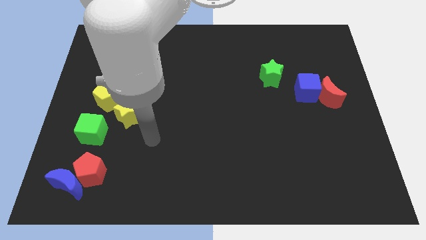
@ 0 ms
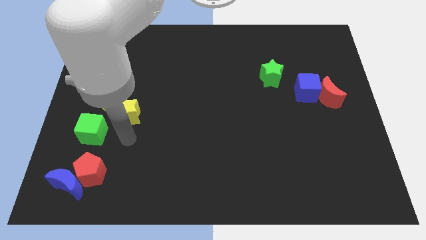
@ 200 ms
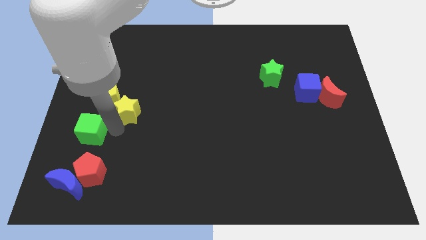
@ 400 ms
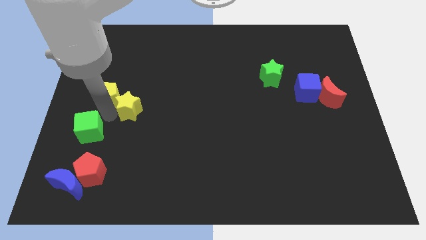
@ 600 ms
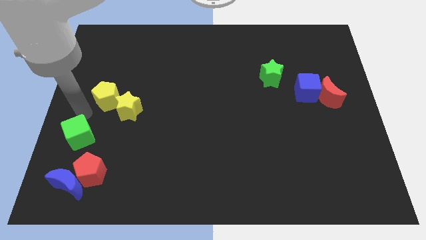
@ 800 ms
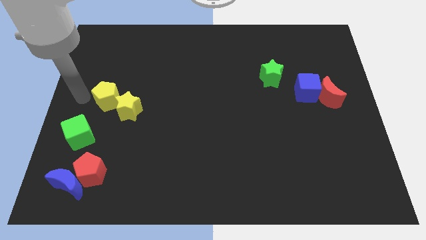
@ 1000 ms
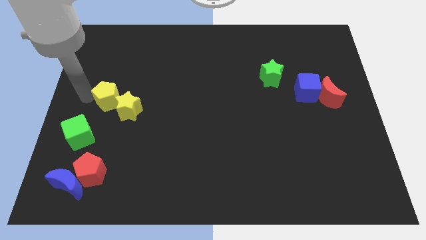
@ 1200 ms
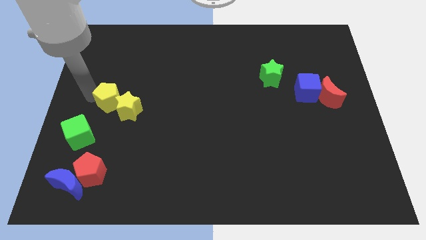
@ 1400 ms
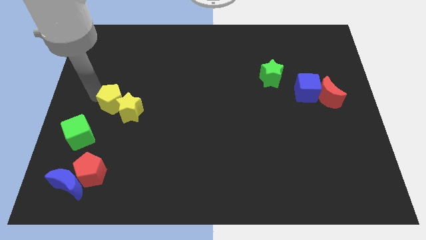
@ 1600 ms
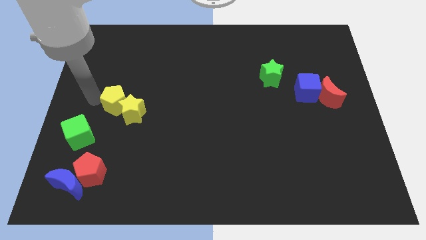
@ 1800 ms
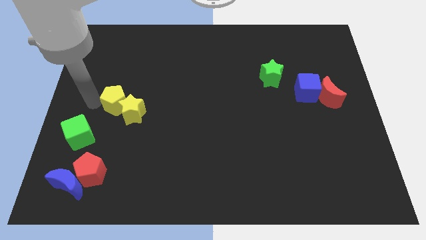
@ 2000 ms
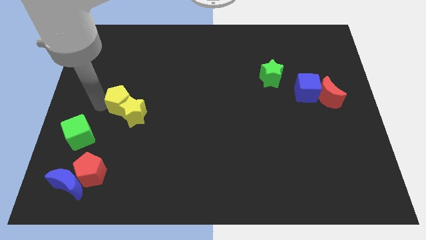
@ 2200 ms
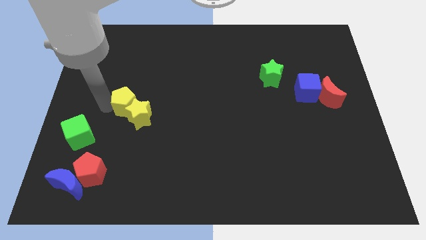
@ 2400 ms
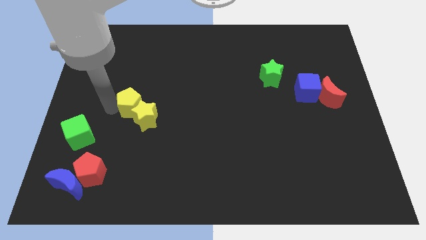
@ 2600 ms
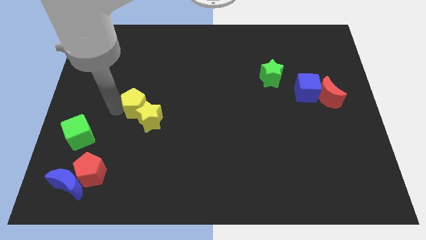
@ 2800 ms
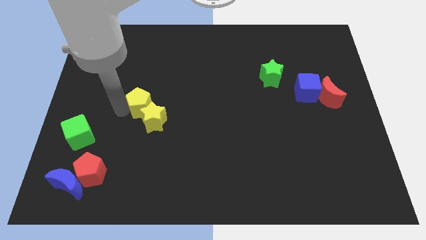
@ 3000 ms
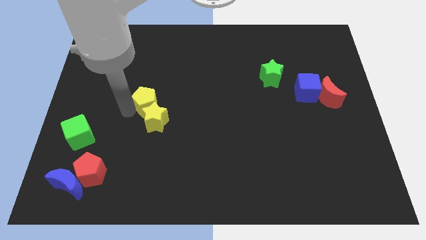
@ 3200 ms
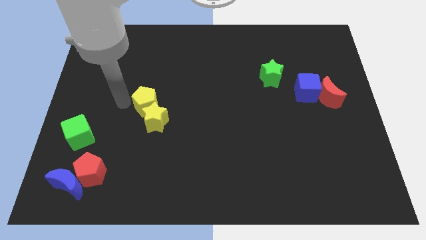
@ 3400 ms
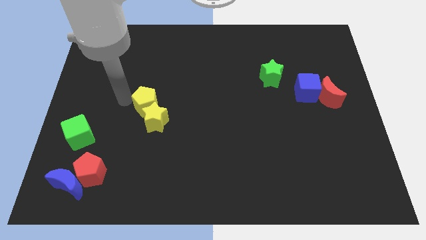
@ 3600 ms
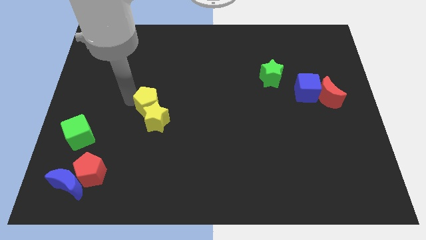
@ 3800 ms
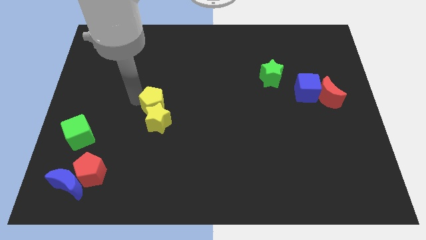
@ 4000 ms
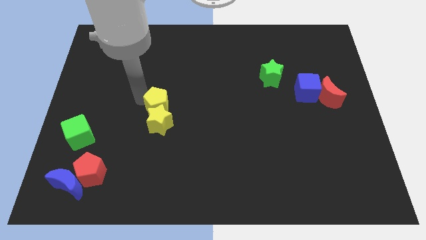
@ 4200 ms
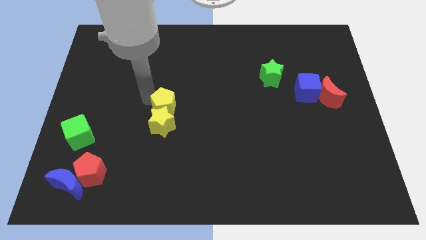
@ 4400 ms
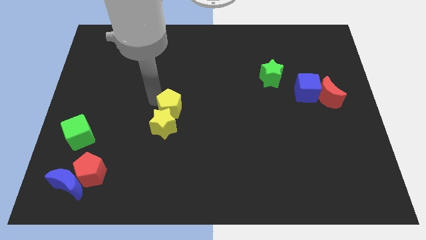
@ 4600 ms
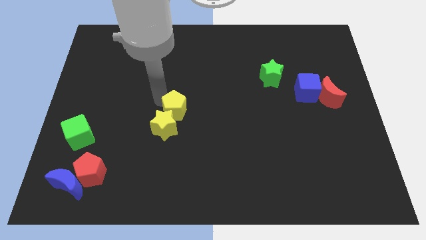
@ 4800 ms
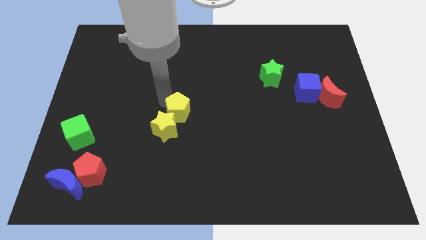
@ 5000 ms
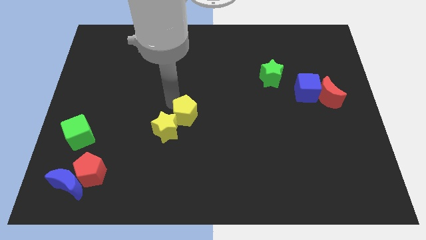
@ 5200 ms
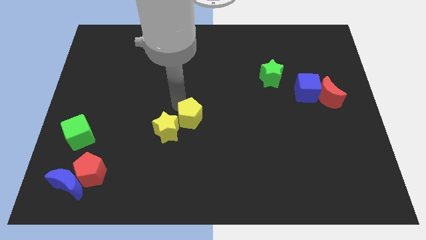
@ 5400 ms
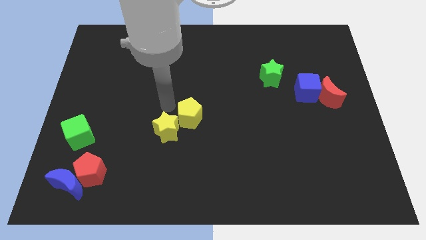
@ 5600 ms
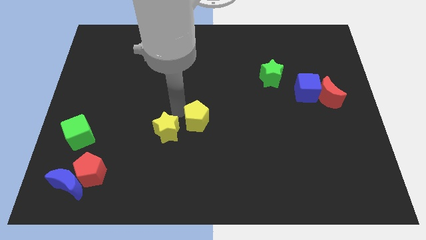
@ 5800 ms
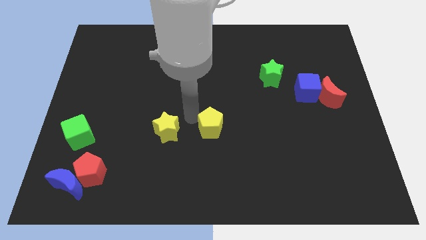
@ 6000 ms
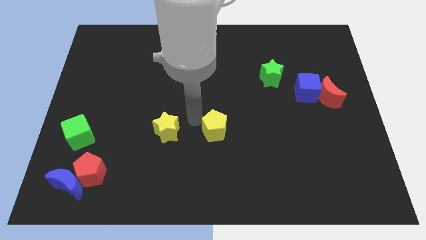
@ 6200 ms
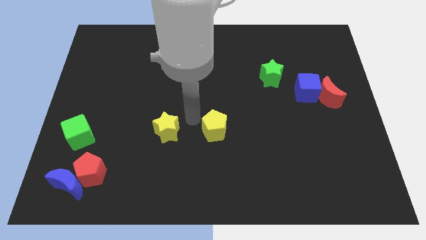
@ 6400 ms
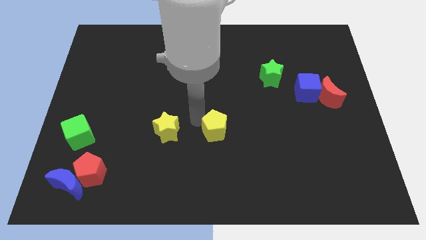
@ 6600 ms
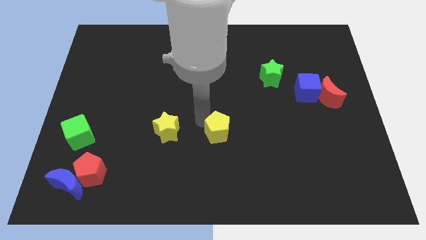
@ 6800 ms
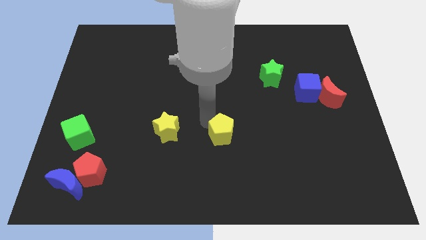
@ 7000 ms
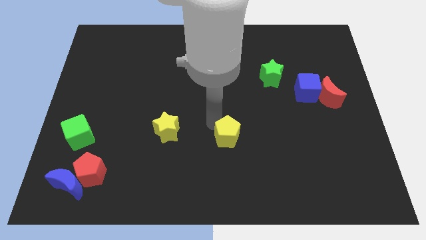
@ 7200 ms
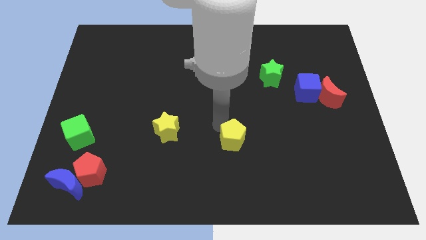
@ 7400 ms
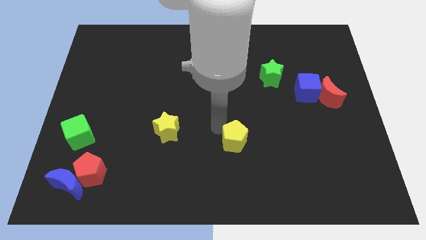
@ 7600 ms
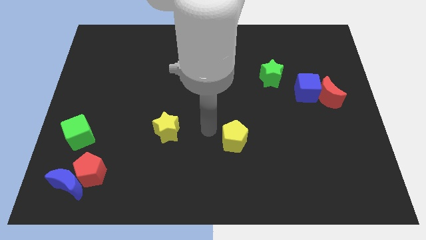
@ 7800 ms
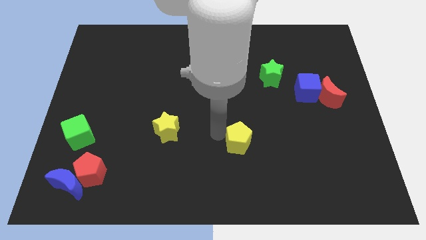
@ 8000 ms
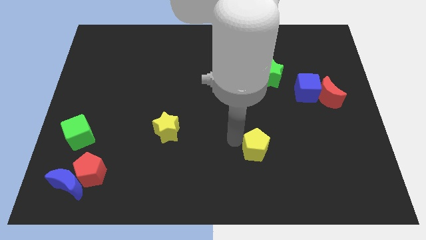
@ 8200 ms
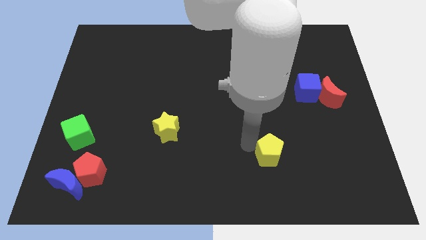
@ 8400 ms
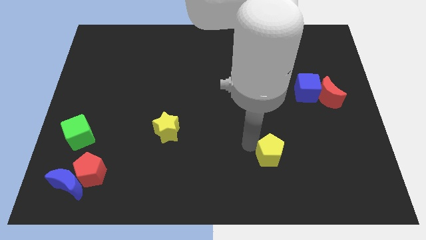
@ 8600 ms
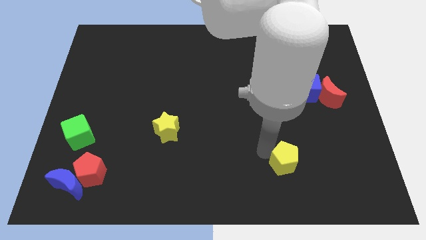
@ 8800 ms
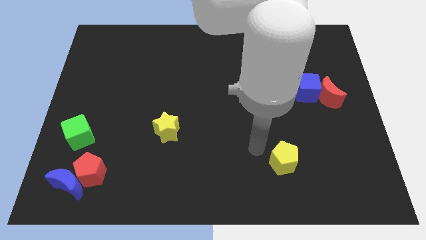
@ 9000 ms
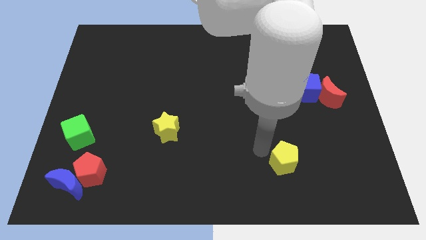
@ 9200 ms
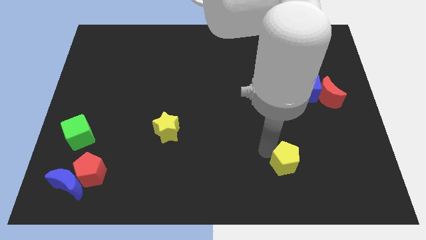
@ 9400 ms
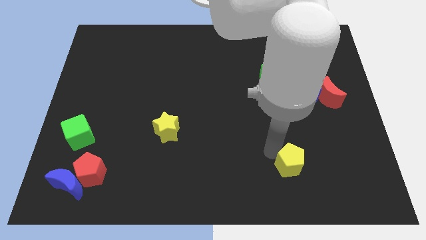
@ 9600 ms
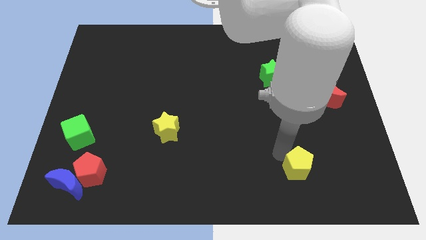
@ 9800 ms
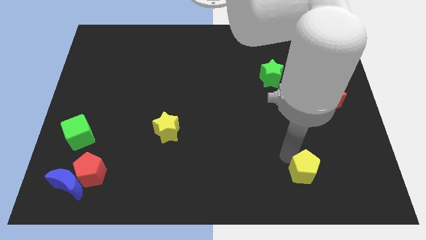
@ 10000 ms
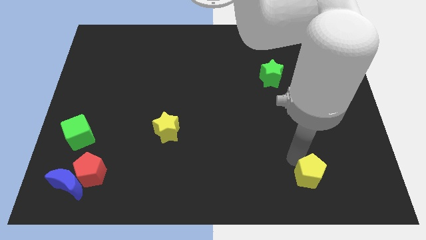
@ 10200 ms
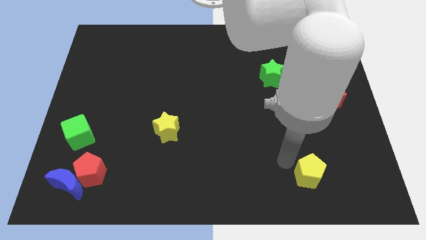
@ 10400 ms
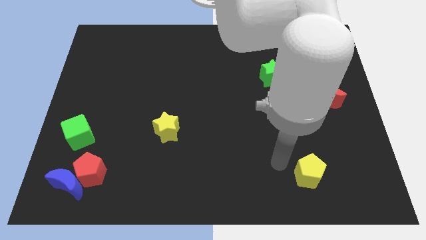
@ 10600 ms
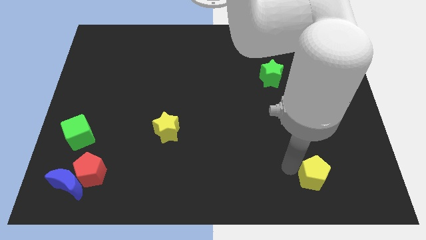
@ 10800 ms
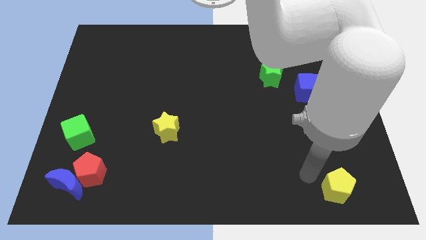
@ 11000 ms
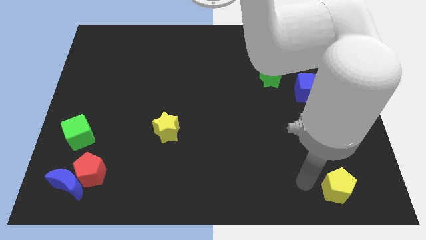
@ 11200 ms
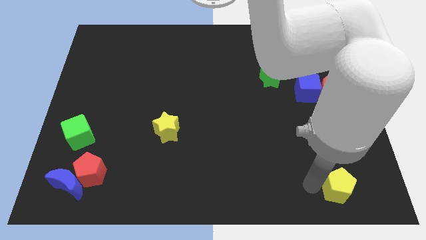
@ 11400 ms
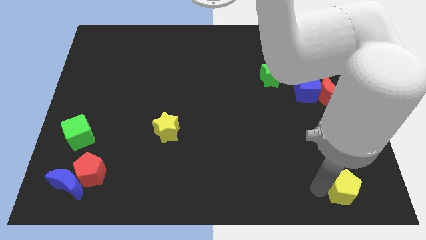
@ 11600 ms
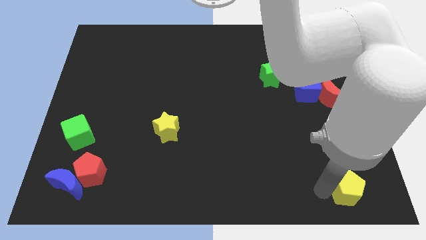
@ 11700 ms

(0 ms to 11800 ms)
put the yellow pentagon to the bottom right of the board
